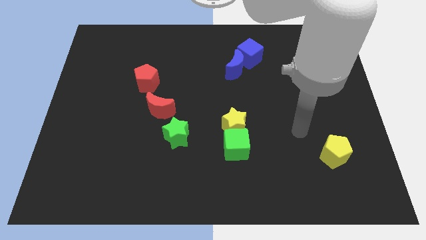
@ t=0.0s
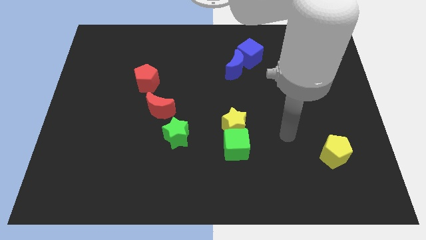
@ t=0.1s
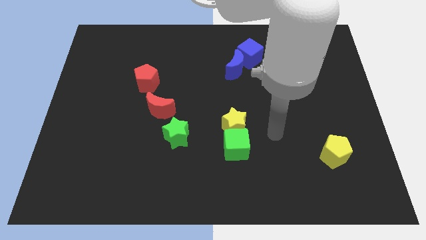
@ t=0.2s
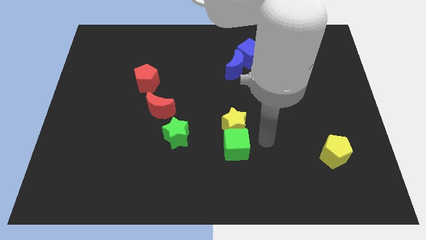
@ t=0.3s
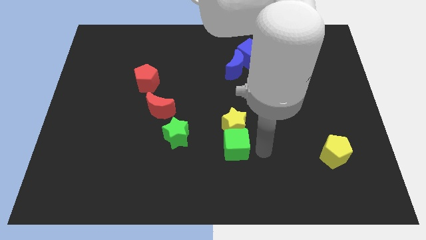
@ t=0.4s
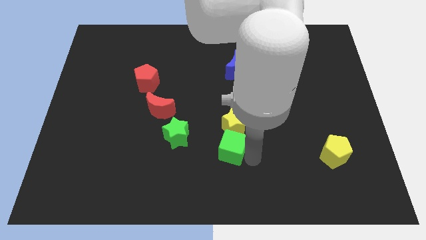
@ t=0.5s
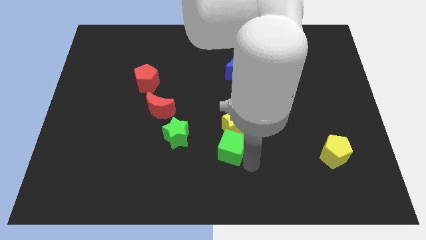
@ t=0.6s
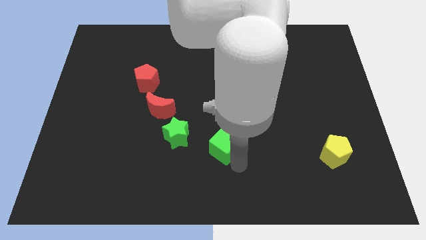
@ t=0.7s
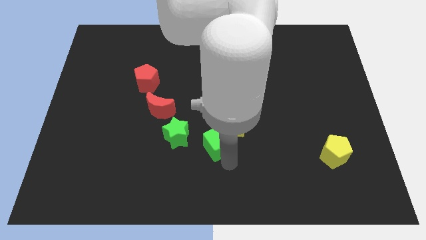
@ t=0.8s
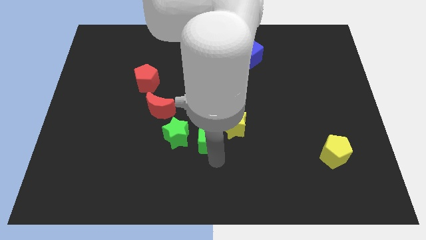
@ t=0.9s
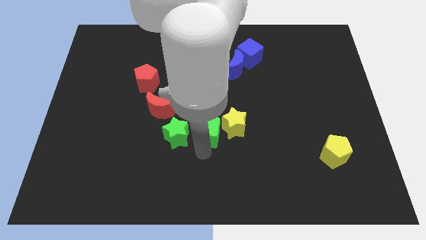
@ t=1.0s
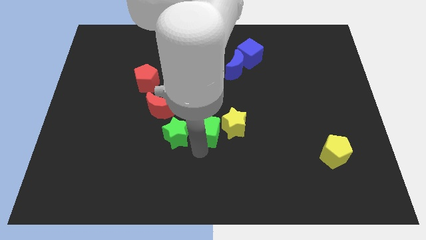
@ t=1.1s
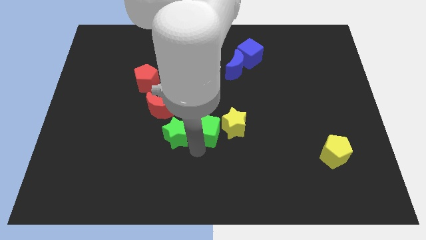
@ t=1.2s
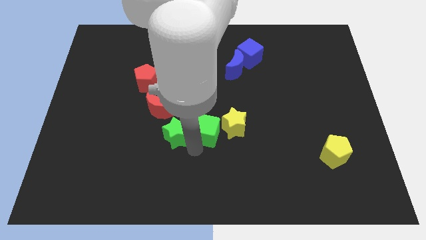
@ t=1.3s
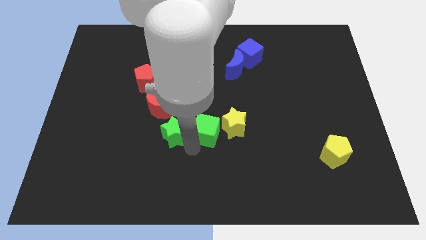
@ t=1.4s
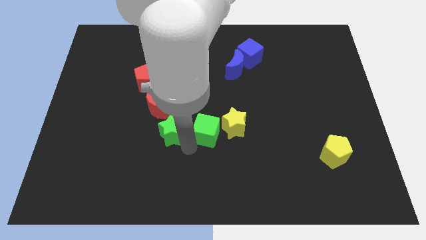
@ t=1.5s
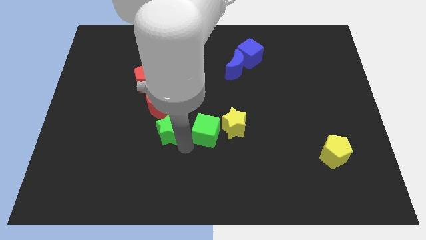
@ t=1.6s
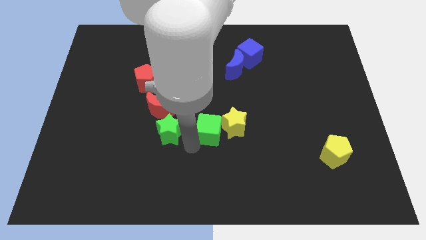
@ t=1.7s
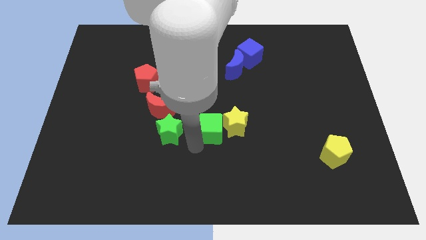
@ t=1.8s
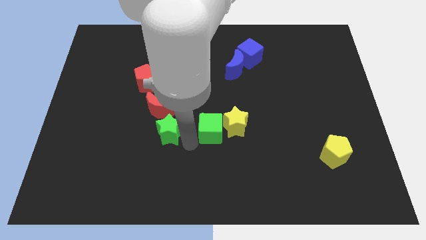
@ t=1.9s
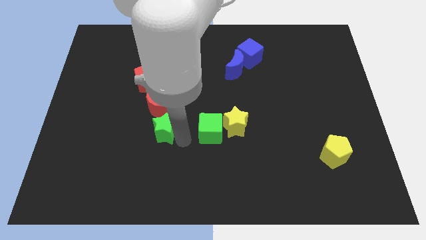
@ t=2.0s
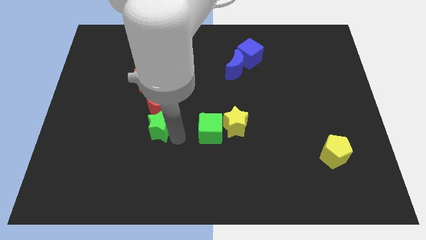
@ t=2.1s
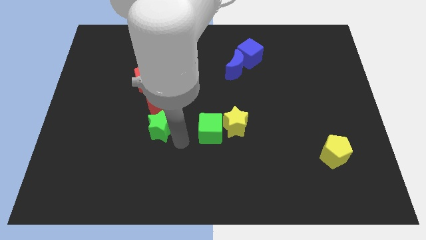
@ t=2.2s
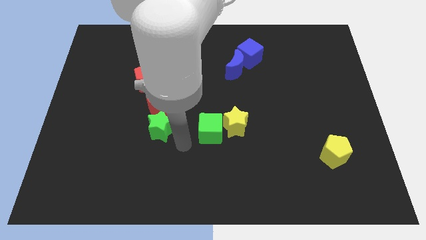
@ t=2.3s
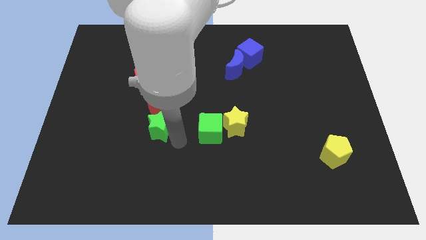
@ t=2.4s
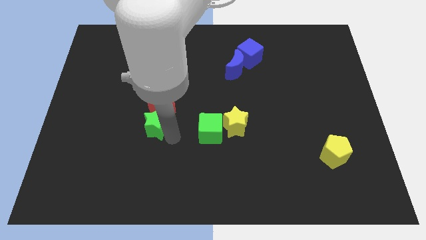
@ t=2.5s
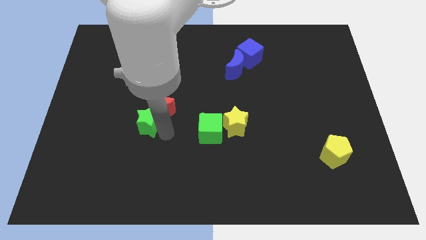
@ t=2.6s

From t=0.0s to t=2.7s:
push the green star somewhat up and to the left

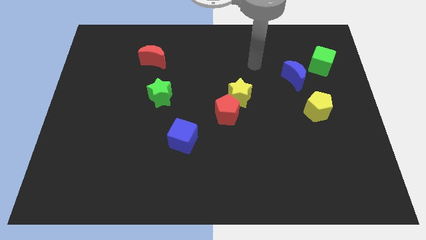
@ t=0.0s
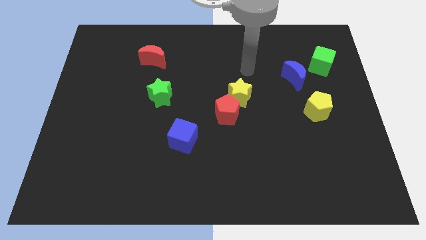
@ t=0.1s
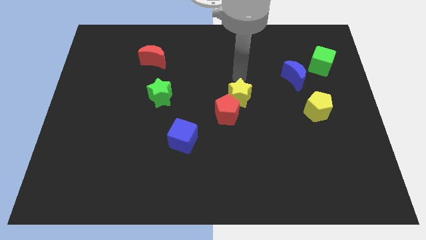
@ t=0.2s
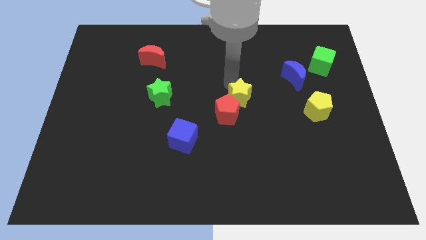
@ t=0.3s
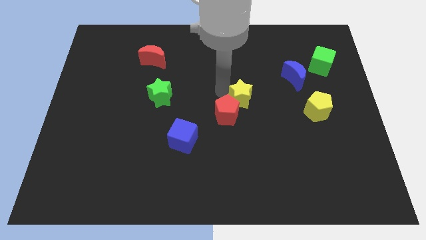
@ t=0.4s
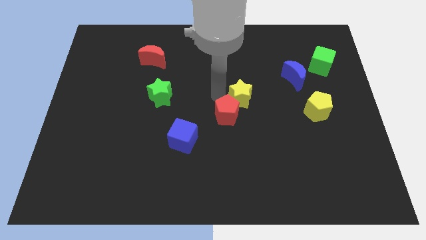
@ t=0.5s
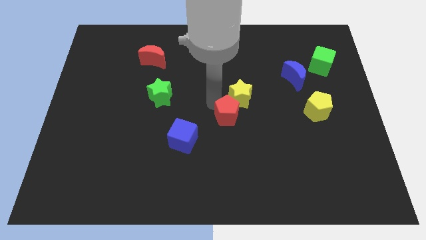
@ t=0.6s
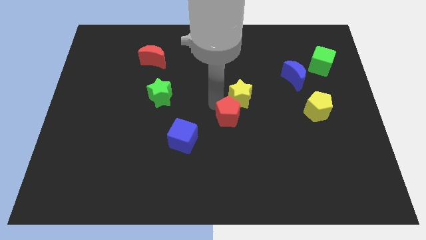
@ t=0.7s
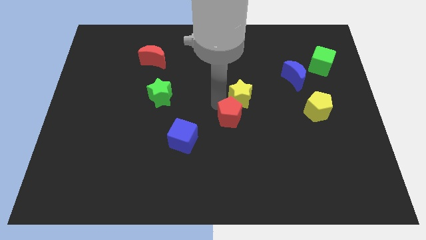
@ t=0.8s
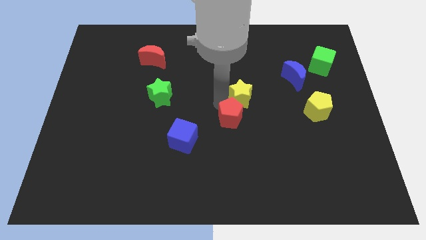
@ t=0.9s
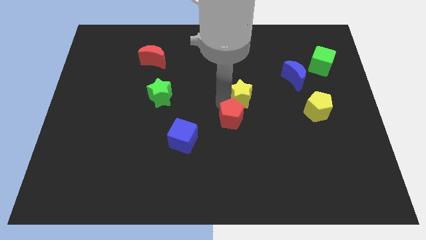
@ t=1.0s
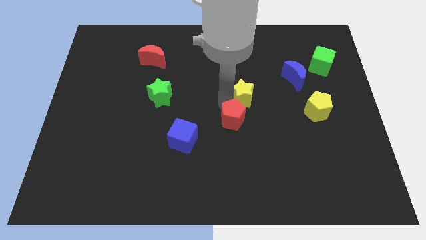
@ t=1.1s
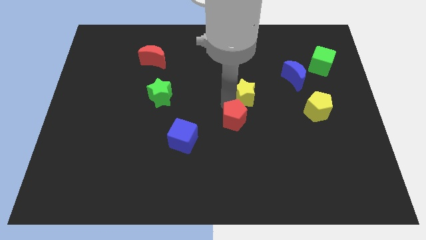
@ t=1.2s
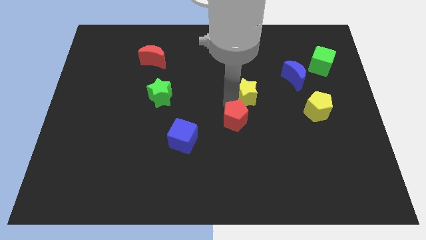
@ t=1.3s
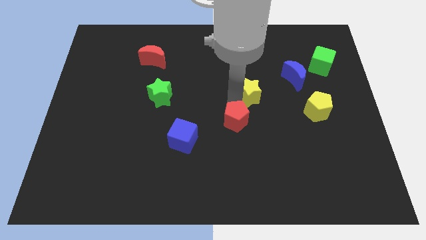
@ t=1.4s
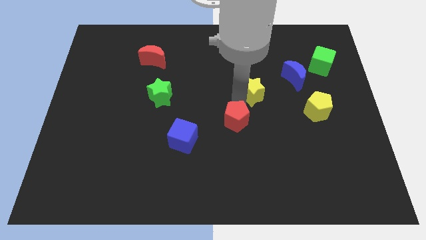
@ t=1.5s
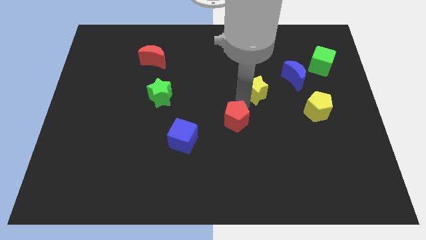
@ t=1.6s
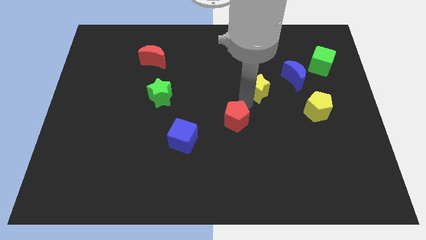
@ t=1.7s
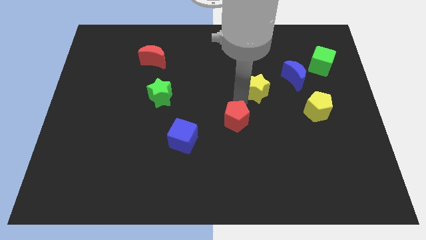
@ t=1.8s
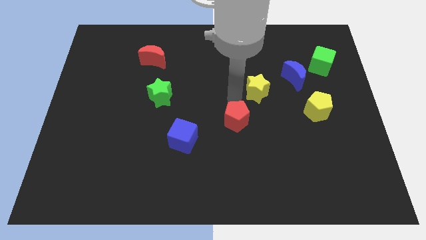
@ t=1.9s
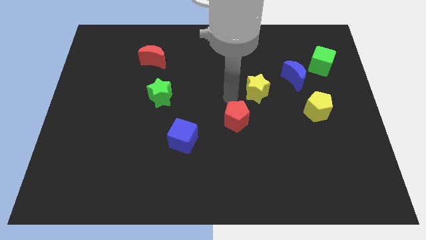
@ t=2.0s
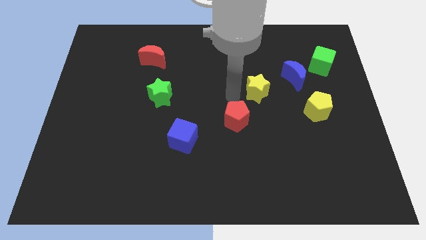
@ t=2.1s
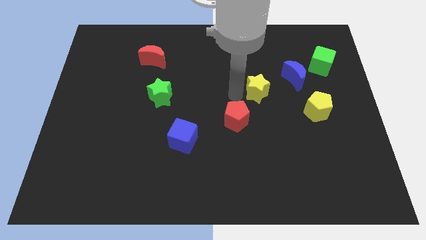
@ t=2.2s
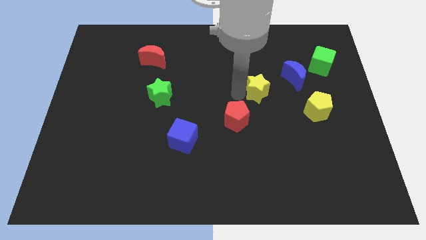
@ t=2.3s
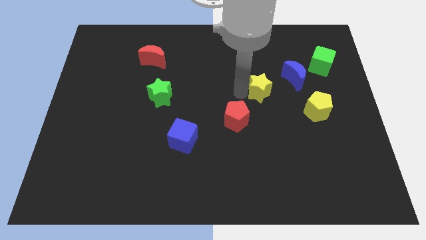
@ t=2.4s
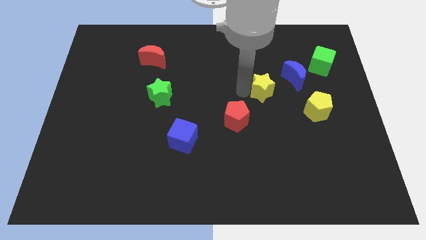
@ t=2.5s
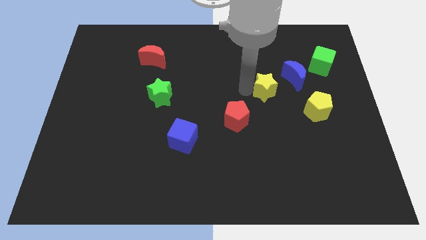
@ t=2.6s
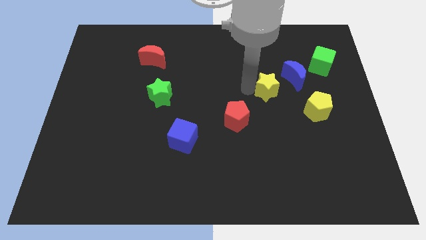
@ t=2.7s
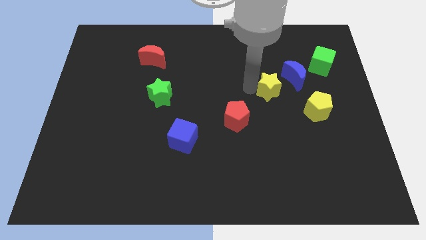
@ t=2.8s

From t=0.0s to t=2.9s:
push the yellow star to the right somewhat

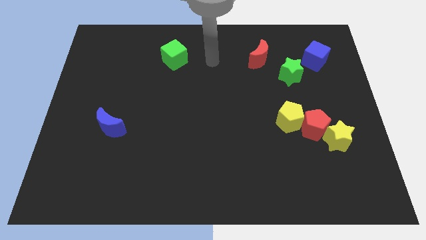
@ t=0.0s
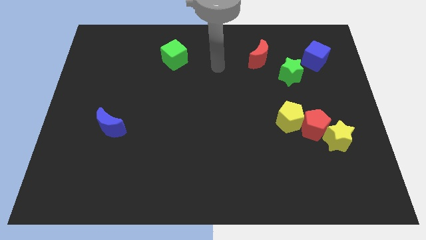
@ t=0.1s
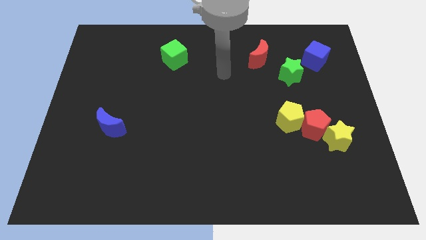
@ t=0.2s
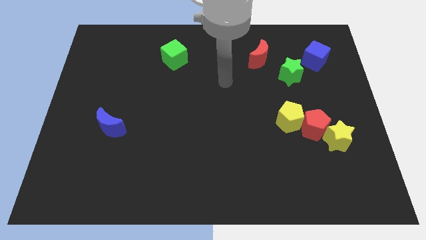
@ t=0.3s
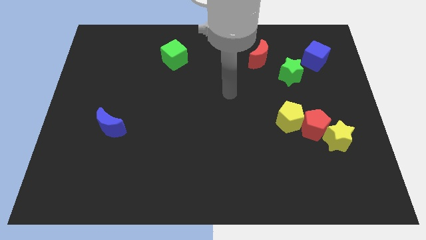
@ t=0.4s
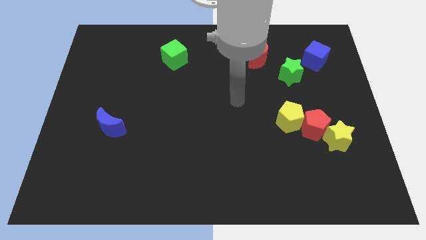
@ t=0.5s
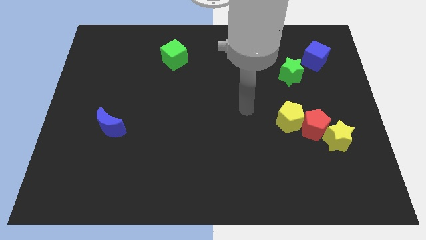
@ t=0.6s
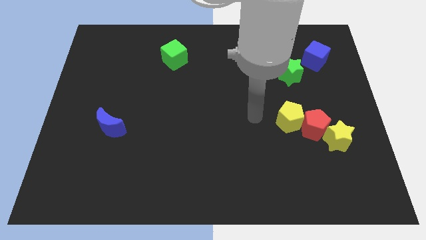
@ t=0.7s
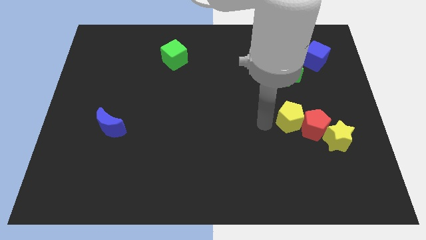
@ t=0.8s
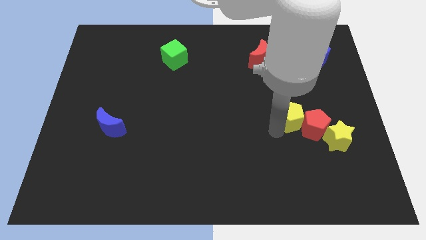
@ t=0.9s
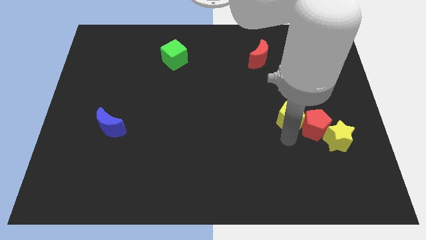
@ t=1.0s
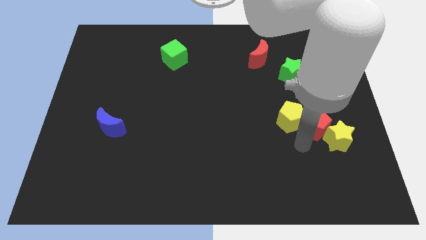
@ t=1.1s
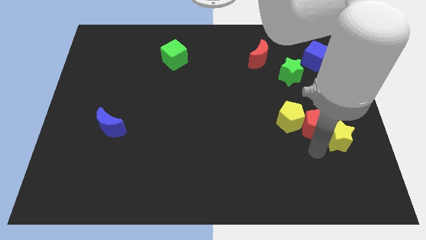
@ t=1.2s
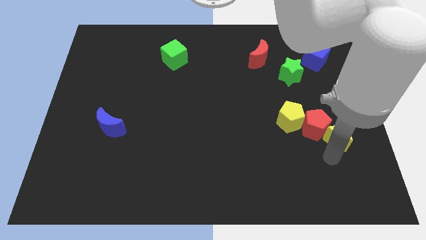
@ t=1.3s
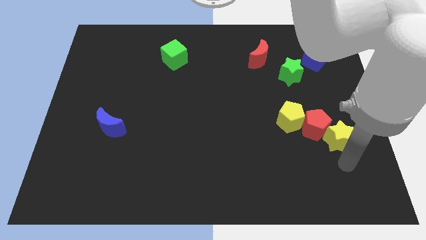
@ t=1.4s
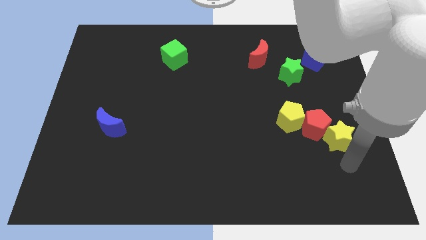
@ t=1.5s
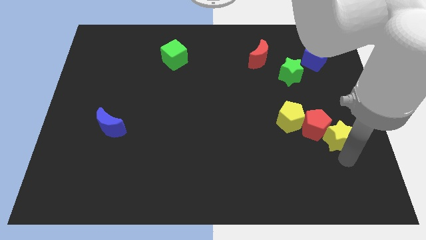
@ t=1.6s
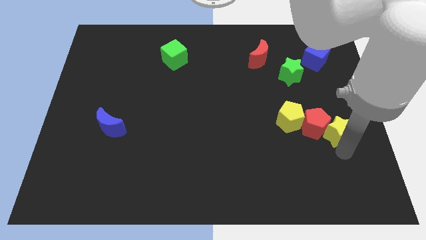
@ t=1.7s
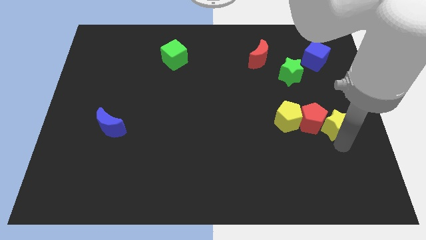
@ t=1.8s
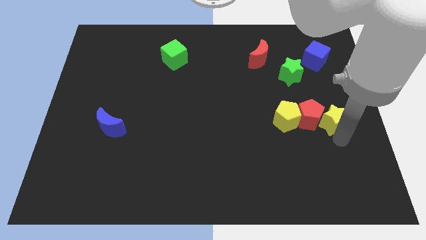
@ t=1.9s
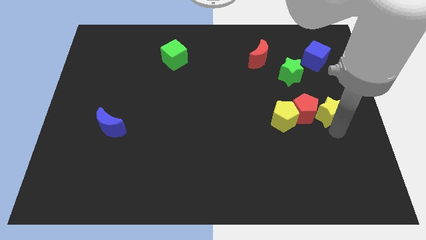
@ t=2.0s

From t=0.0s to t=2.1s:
slightly slide the yellow star up

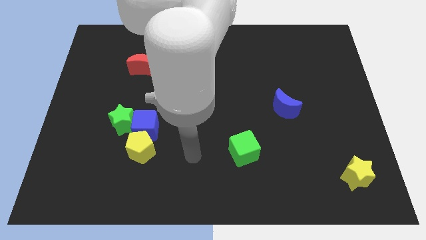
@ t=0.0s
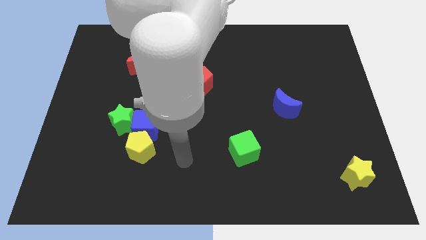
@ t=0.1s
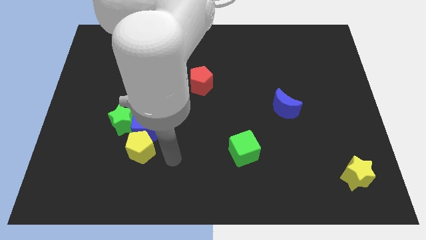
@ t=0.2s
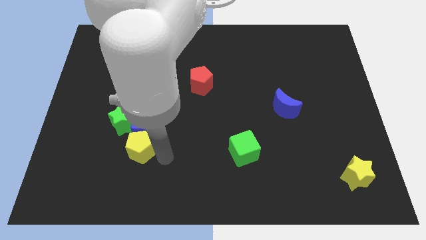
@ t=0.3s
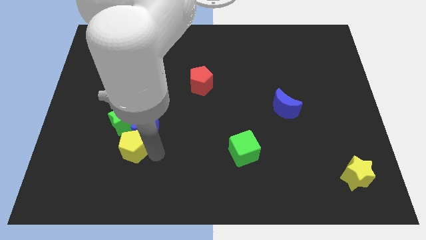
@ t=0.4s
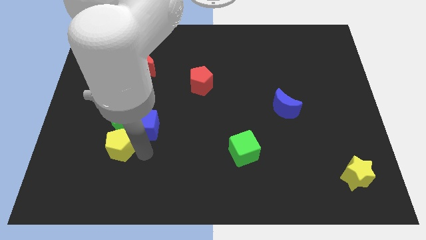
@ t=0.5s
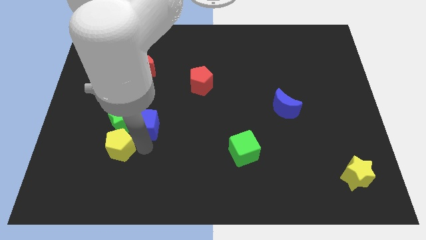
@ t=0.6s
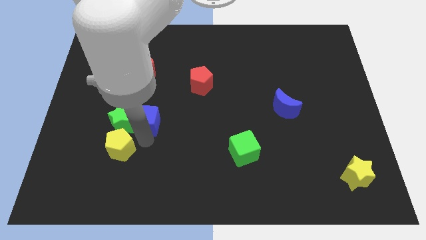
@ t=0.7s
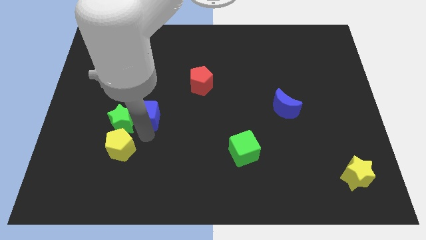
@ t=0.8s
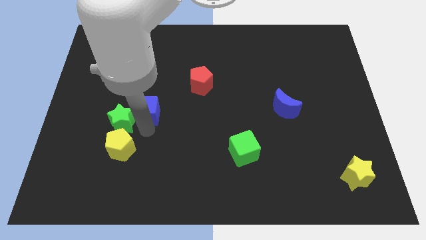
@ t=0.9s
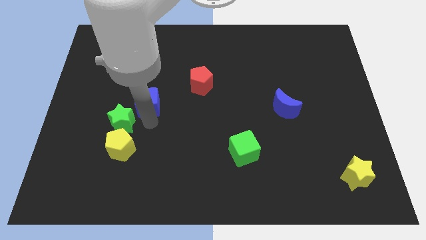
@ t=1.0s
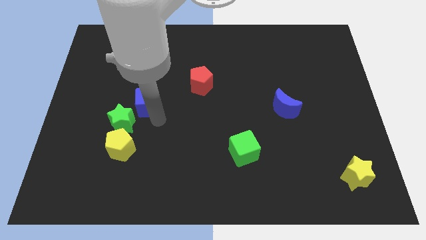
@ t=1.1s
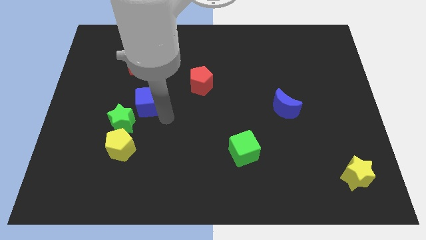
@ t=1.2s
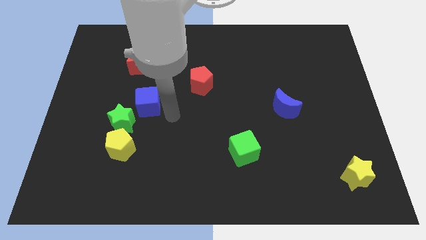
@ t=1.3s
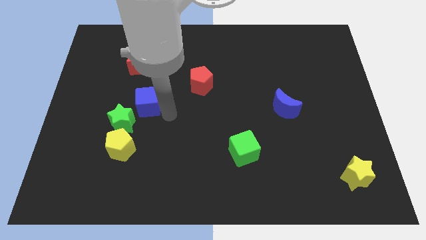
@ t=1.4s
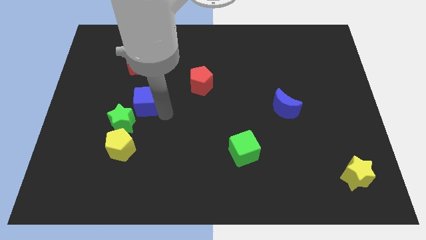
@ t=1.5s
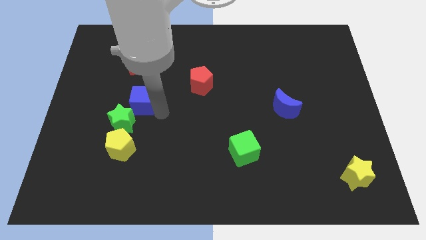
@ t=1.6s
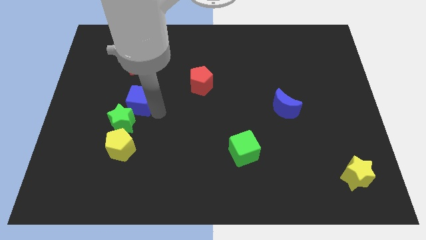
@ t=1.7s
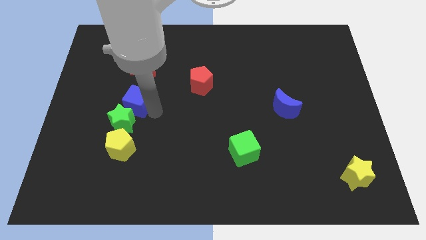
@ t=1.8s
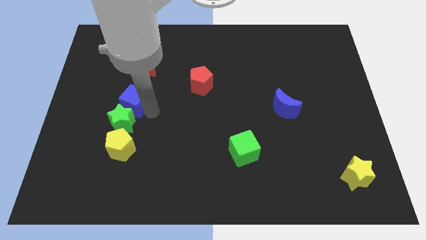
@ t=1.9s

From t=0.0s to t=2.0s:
move the blue cube a bit up and left diagonally
